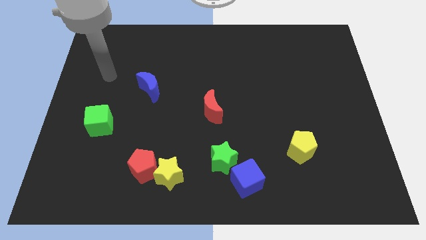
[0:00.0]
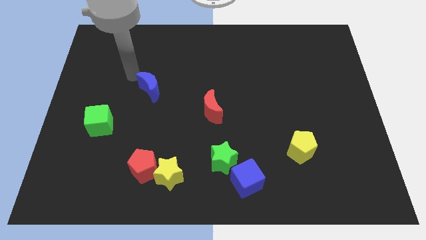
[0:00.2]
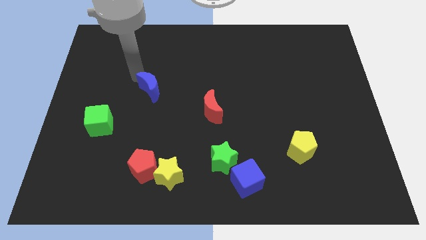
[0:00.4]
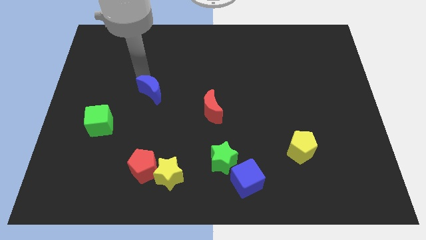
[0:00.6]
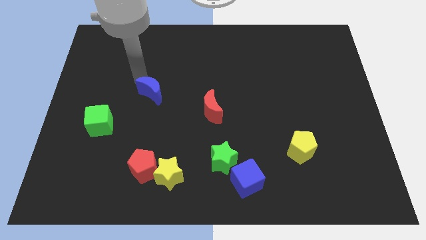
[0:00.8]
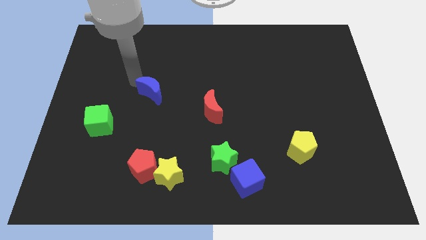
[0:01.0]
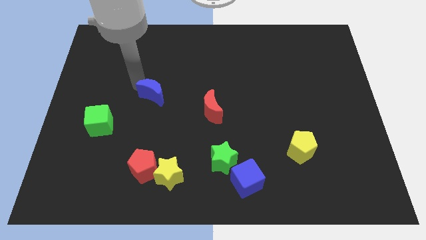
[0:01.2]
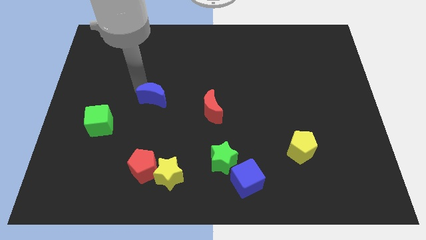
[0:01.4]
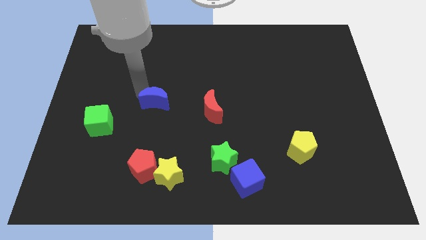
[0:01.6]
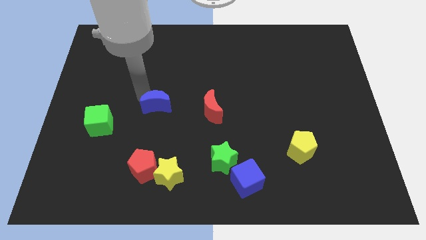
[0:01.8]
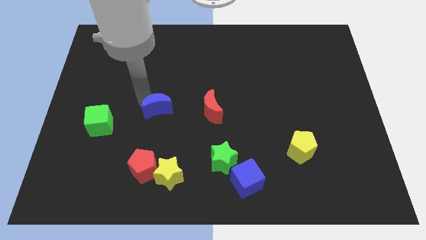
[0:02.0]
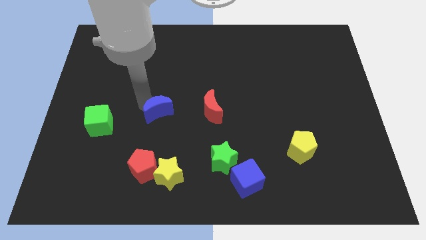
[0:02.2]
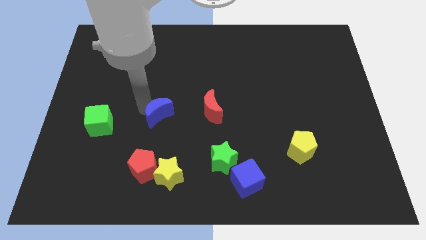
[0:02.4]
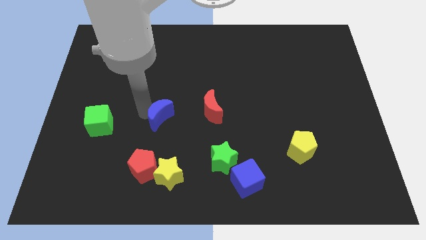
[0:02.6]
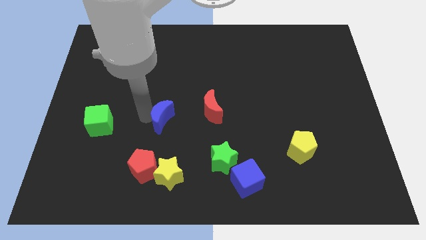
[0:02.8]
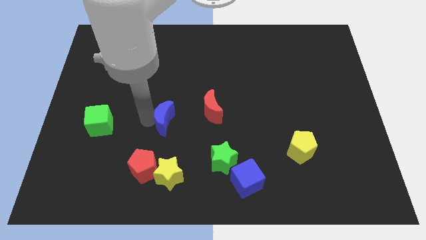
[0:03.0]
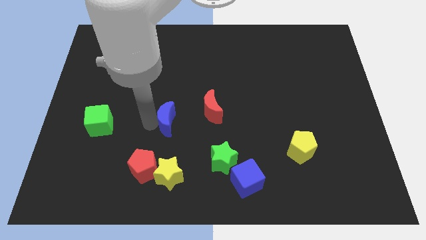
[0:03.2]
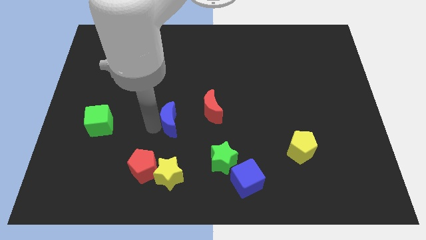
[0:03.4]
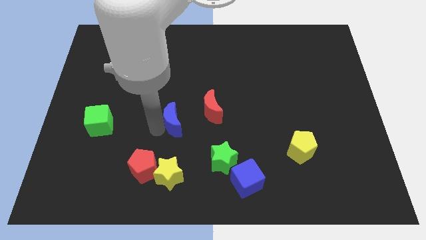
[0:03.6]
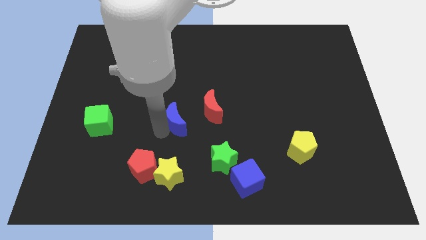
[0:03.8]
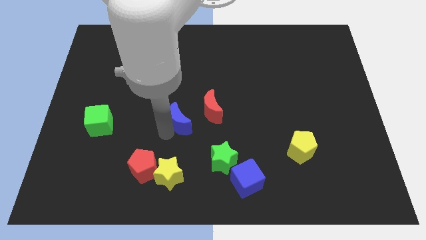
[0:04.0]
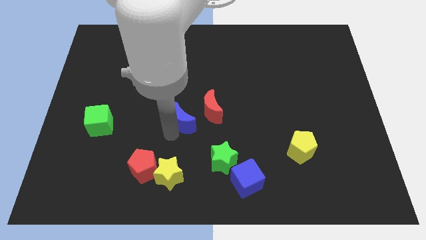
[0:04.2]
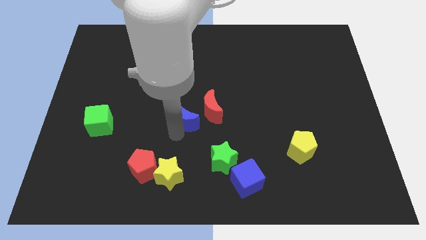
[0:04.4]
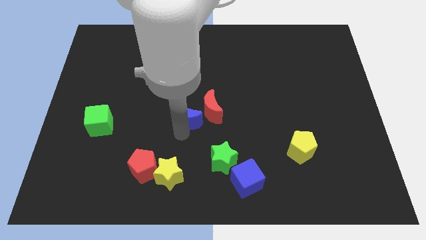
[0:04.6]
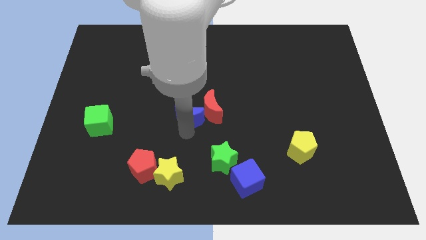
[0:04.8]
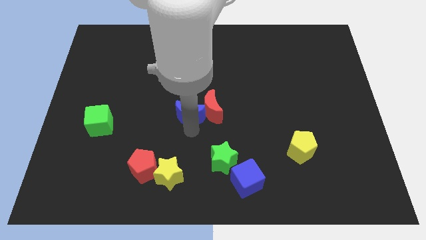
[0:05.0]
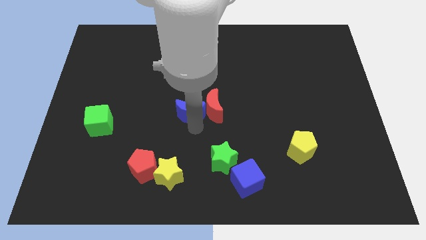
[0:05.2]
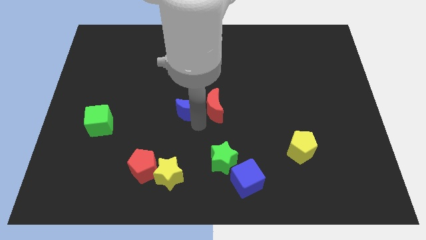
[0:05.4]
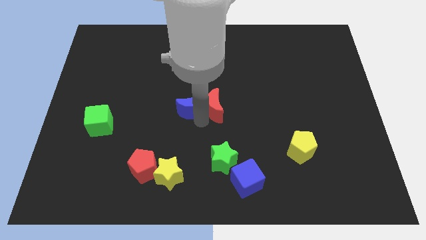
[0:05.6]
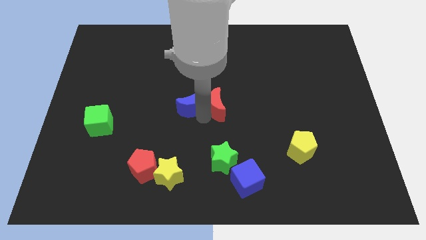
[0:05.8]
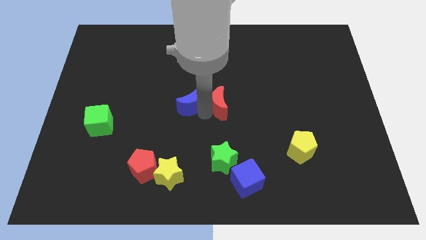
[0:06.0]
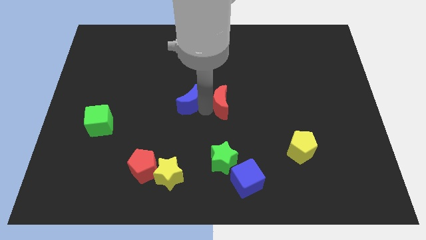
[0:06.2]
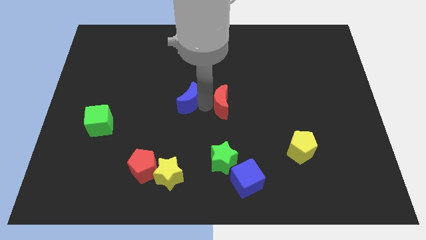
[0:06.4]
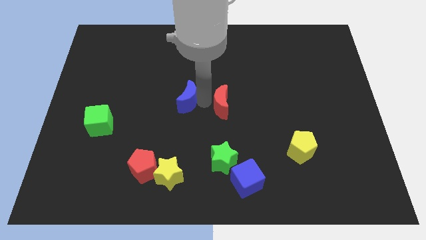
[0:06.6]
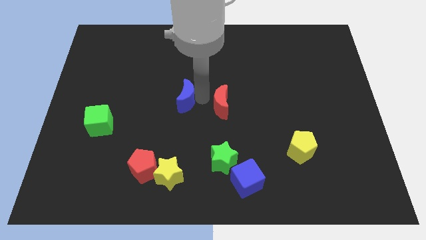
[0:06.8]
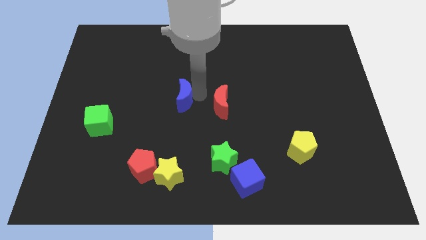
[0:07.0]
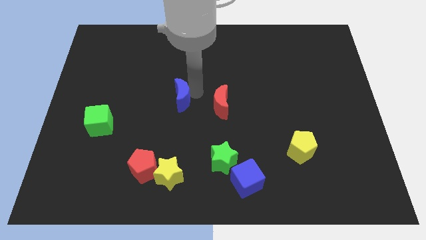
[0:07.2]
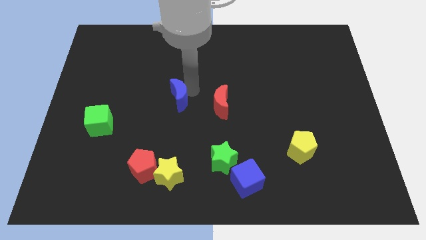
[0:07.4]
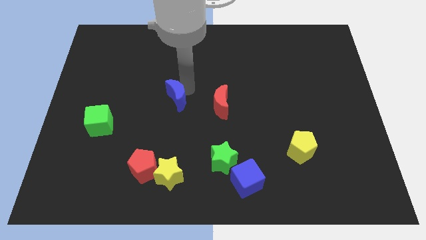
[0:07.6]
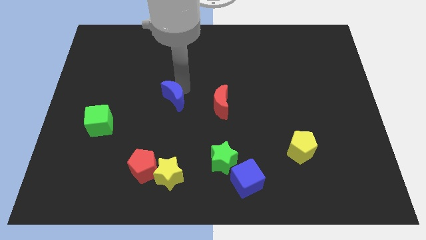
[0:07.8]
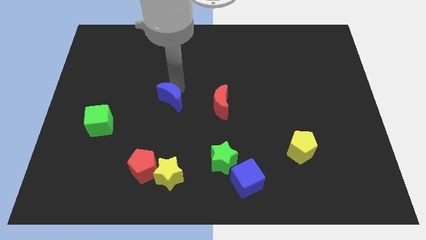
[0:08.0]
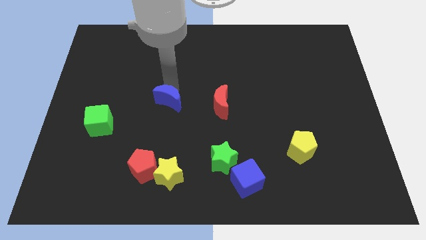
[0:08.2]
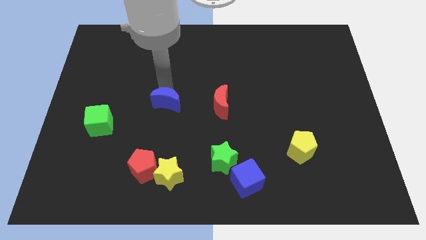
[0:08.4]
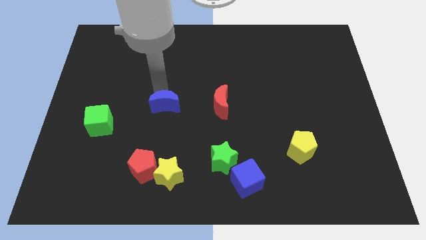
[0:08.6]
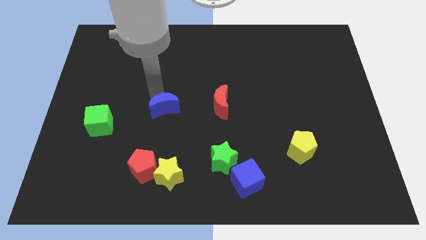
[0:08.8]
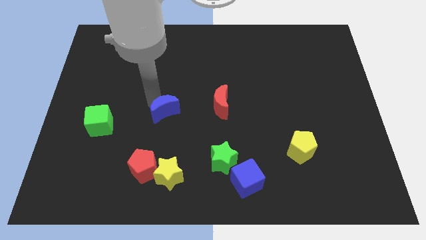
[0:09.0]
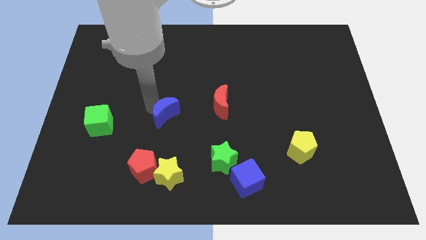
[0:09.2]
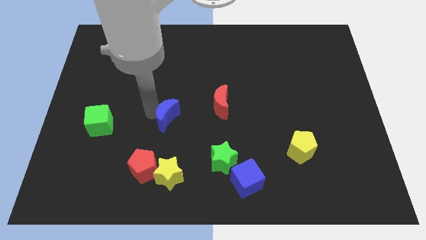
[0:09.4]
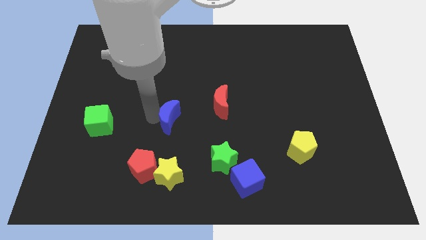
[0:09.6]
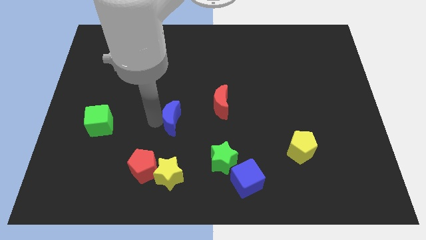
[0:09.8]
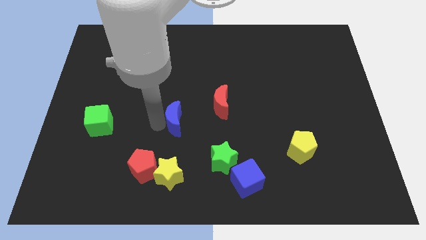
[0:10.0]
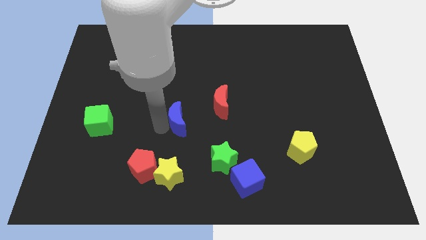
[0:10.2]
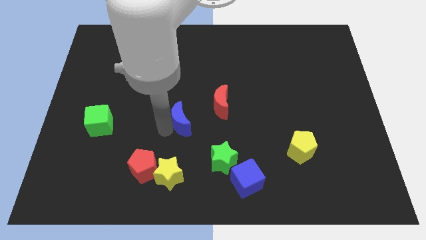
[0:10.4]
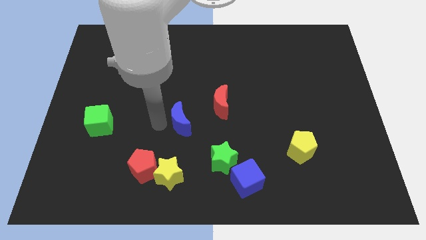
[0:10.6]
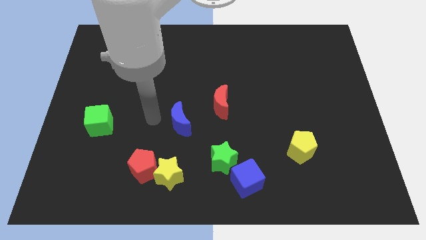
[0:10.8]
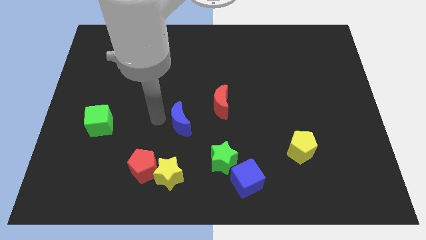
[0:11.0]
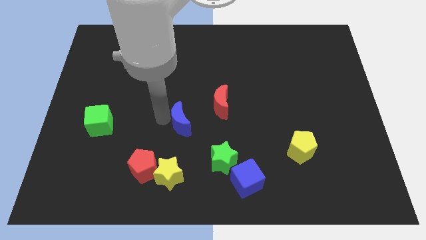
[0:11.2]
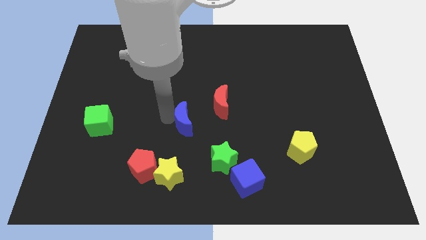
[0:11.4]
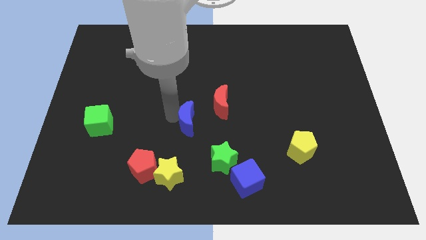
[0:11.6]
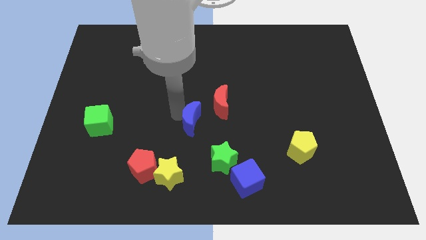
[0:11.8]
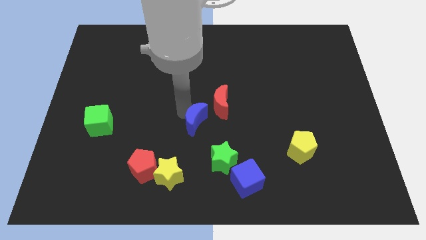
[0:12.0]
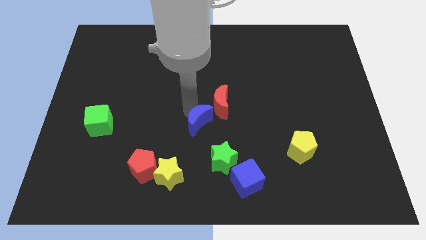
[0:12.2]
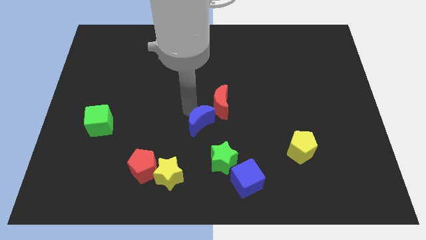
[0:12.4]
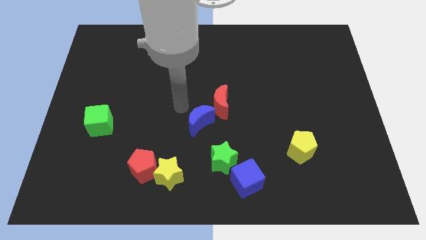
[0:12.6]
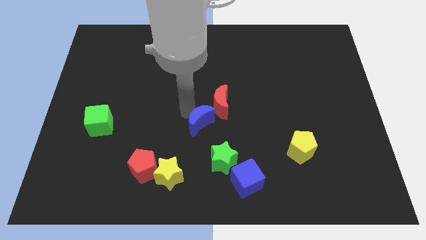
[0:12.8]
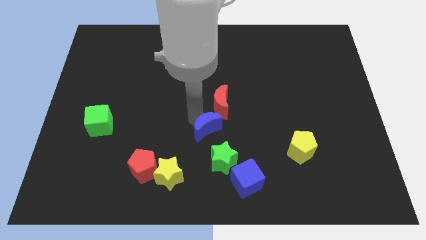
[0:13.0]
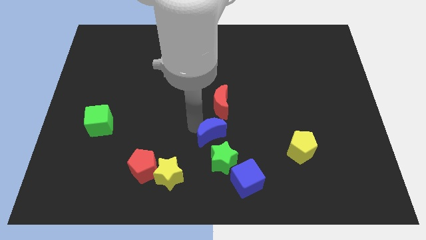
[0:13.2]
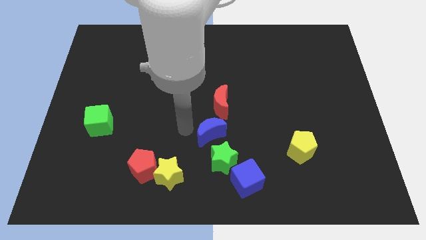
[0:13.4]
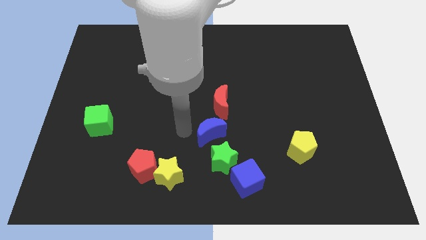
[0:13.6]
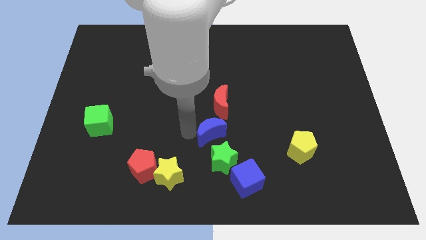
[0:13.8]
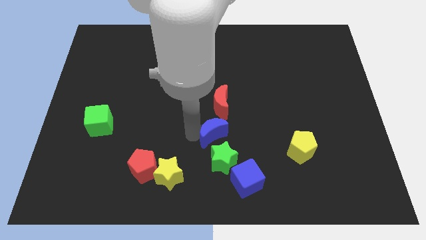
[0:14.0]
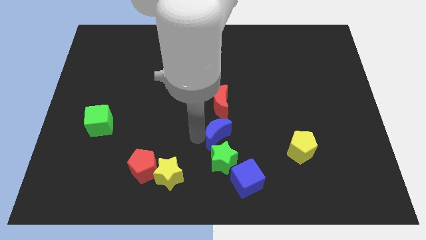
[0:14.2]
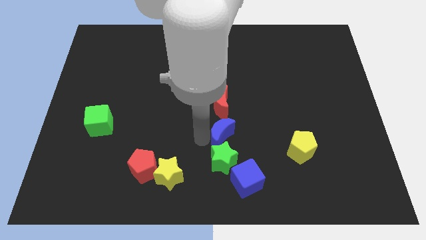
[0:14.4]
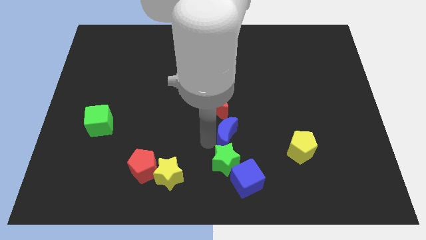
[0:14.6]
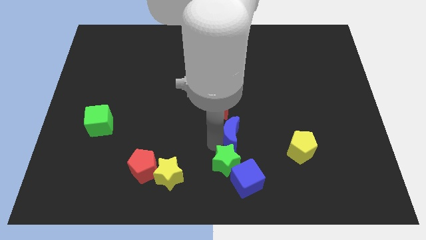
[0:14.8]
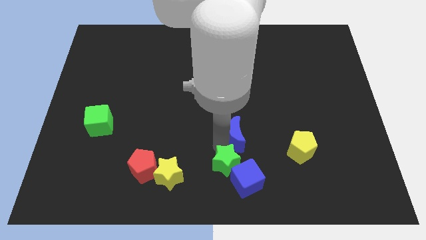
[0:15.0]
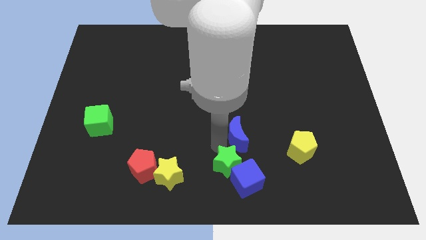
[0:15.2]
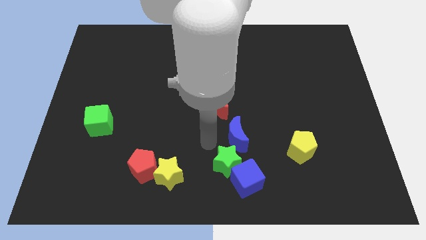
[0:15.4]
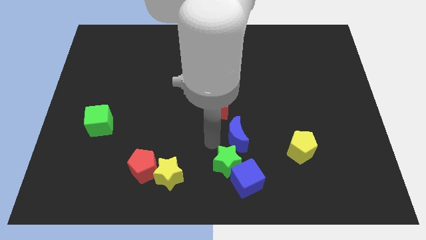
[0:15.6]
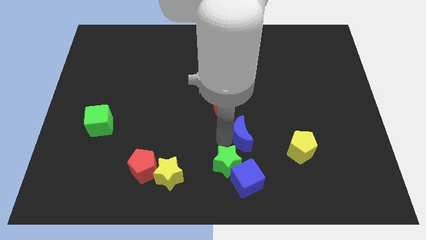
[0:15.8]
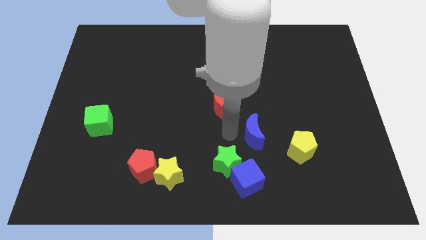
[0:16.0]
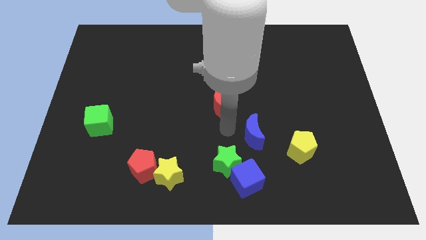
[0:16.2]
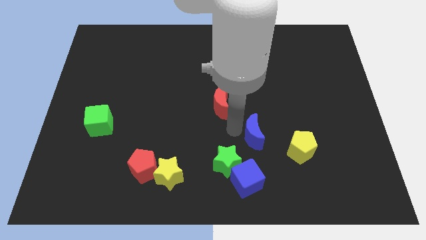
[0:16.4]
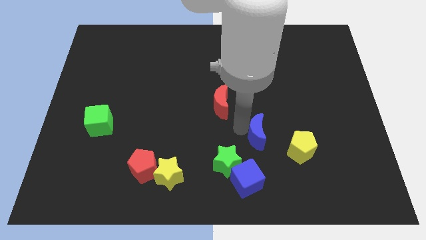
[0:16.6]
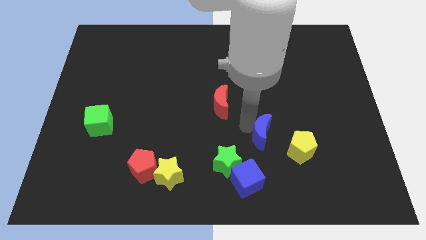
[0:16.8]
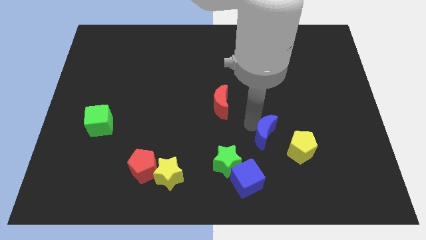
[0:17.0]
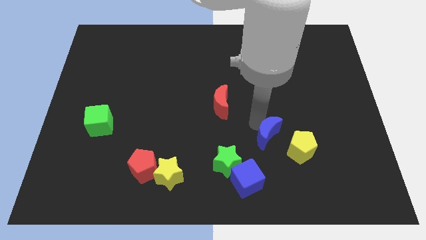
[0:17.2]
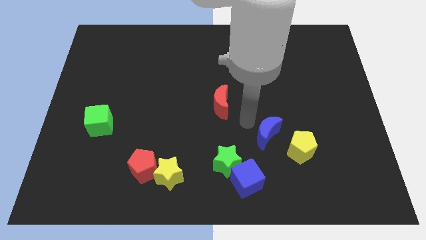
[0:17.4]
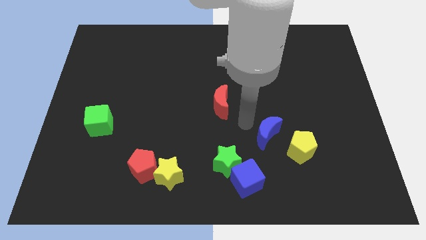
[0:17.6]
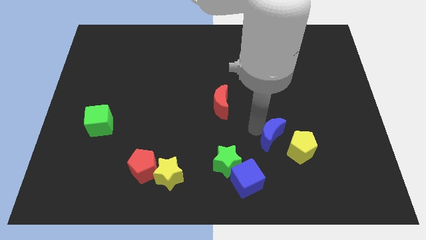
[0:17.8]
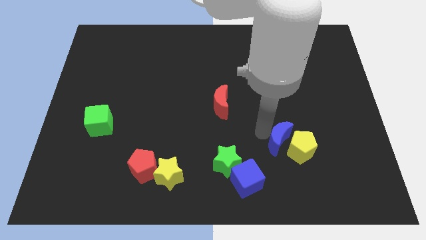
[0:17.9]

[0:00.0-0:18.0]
put the blue moon to the yellow pentagon
